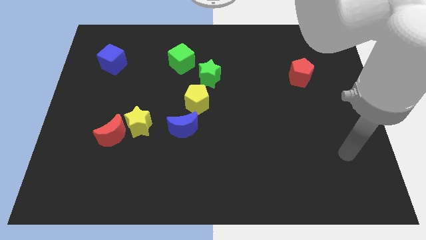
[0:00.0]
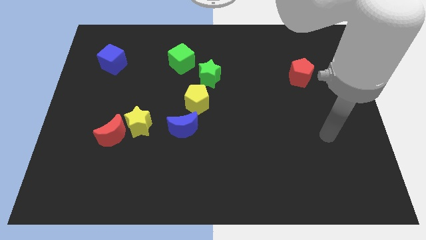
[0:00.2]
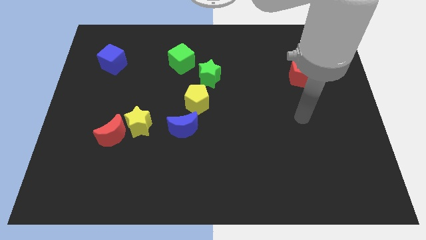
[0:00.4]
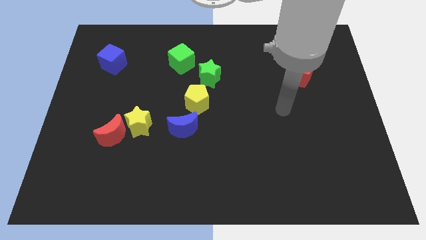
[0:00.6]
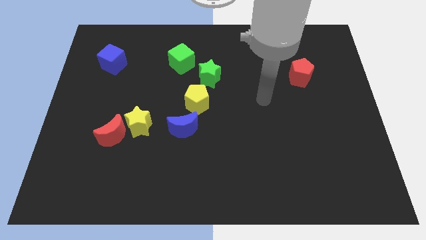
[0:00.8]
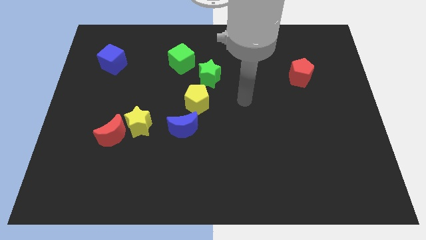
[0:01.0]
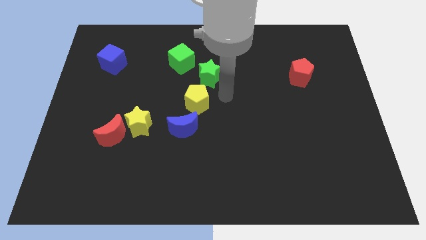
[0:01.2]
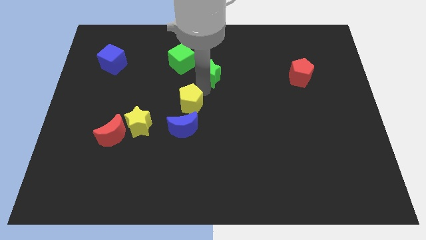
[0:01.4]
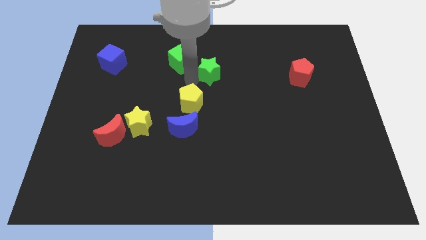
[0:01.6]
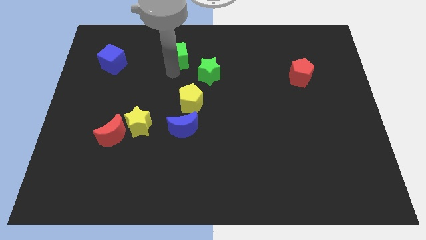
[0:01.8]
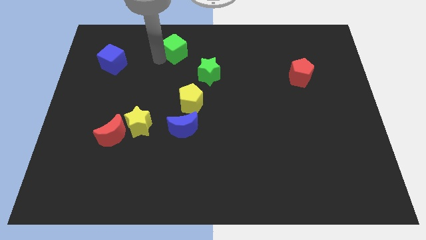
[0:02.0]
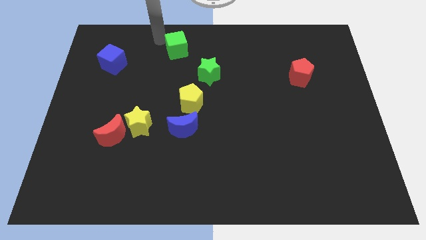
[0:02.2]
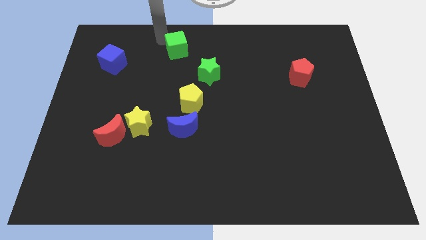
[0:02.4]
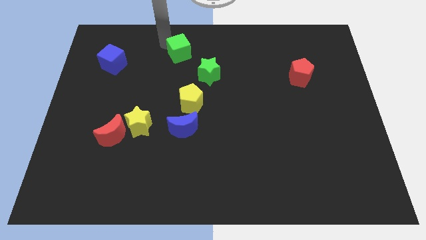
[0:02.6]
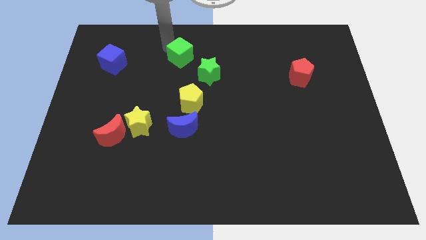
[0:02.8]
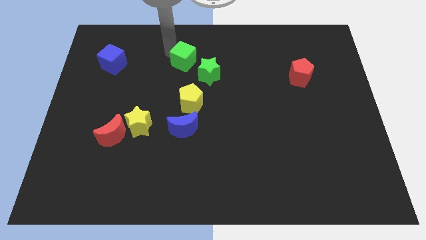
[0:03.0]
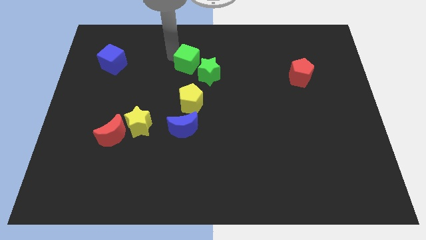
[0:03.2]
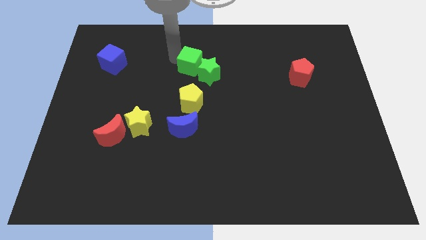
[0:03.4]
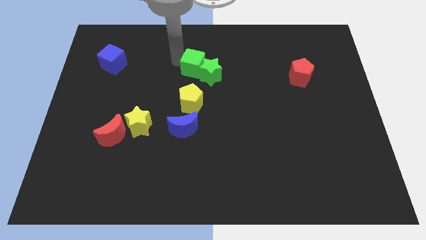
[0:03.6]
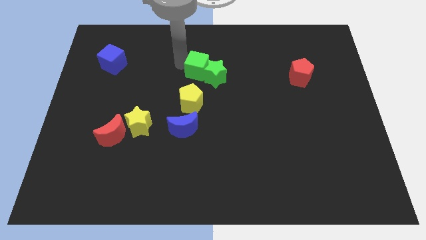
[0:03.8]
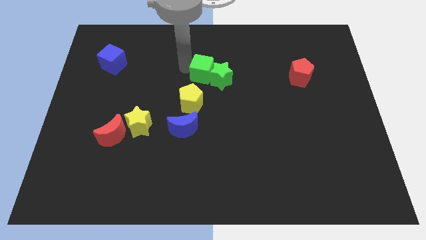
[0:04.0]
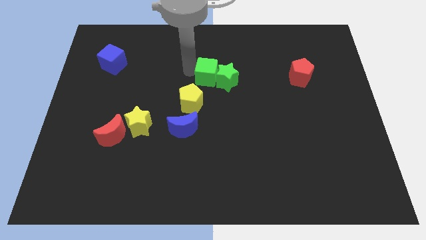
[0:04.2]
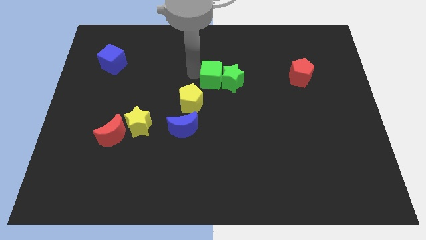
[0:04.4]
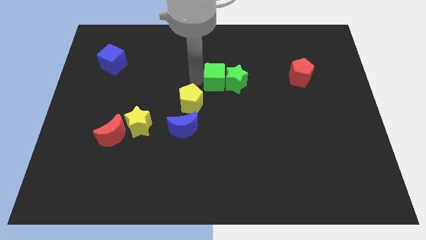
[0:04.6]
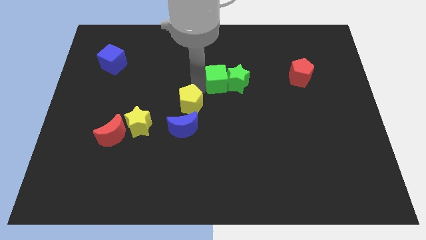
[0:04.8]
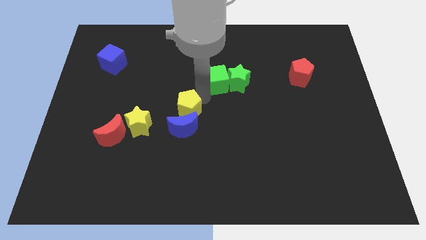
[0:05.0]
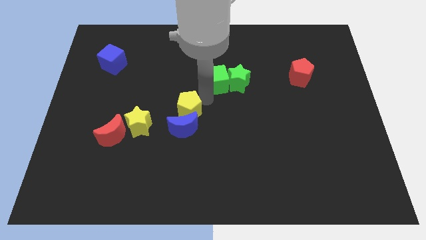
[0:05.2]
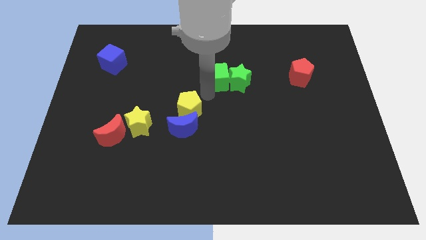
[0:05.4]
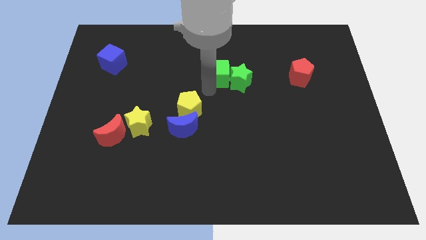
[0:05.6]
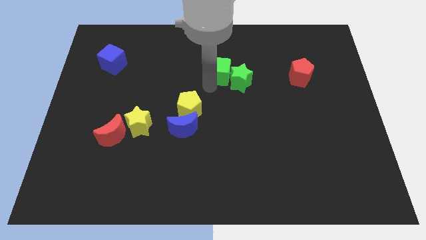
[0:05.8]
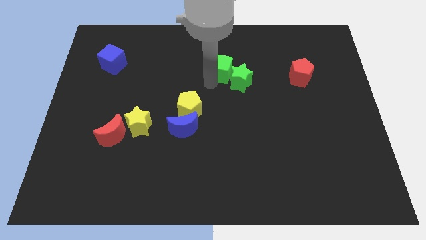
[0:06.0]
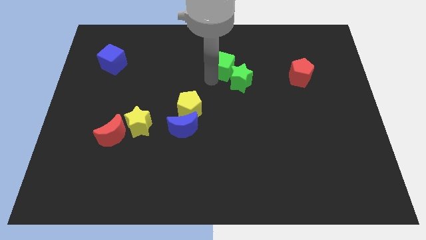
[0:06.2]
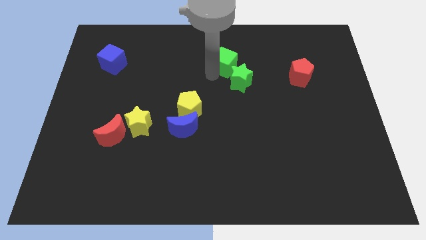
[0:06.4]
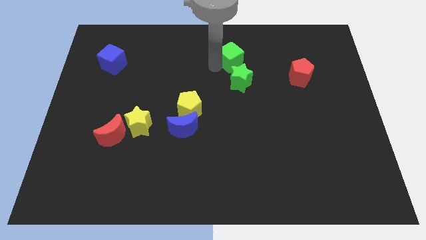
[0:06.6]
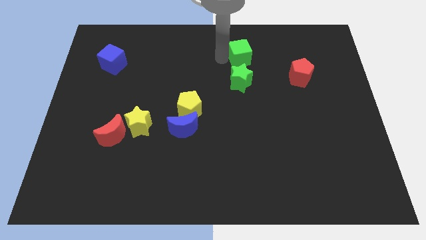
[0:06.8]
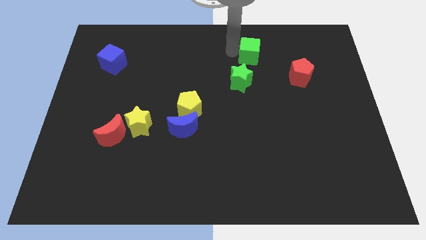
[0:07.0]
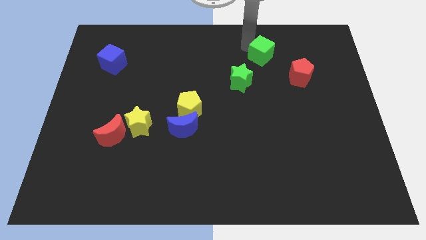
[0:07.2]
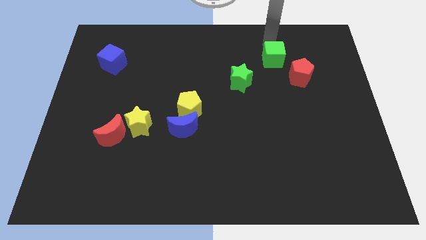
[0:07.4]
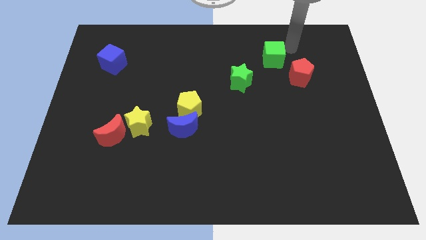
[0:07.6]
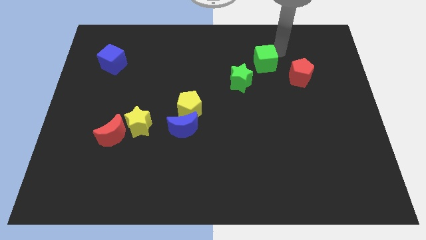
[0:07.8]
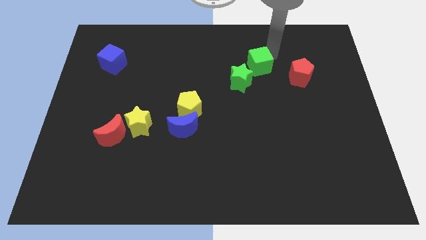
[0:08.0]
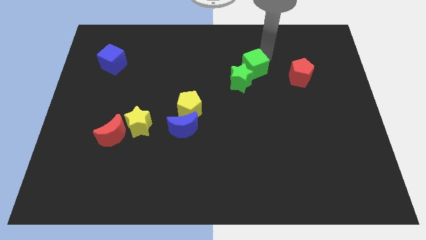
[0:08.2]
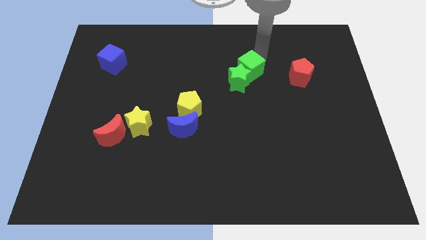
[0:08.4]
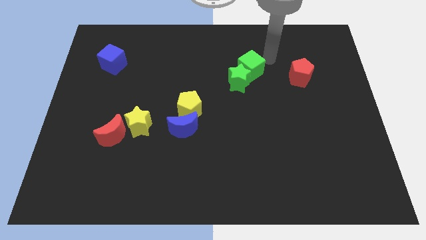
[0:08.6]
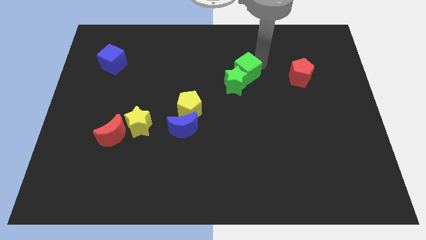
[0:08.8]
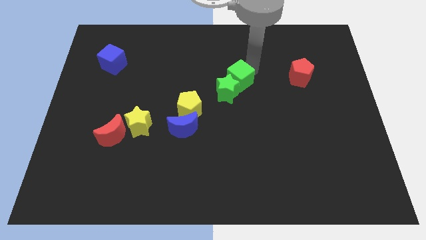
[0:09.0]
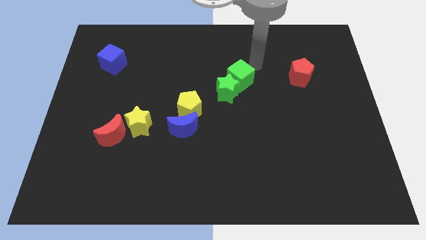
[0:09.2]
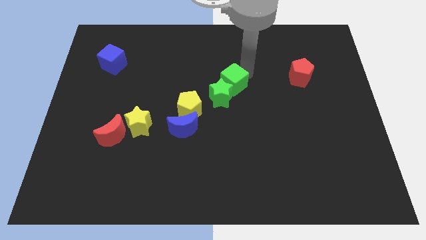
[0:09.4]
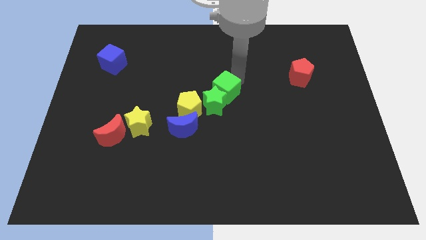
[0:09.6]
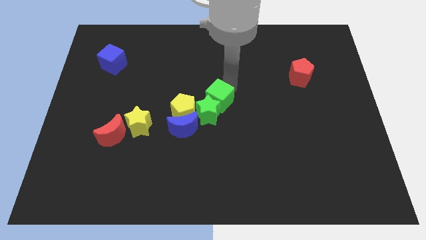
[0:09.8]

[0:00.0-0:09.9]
slide the green cube to the top right of the blue moon

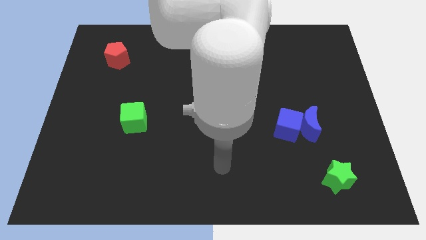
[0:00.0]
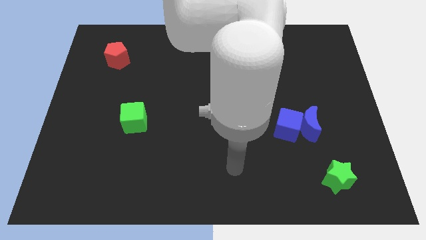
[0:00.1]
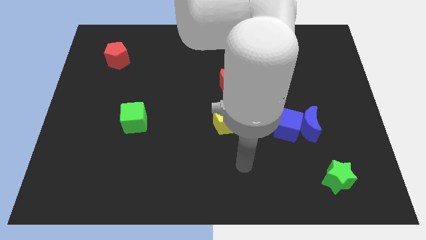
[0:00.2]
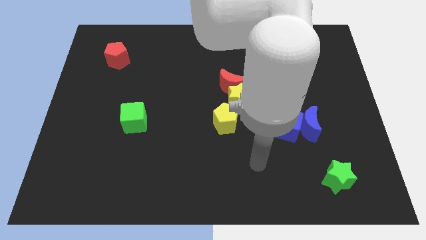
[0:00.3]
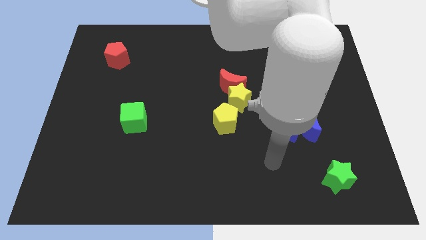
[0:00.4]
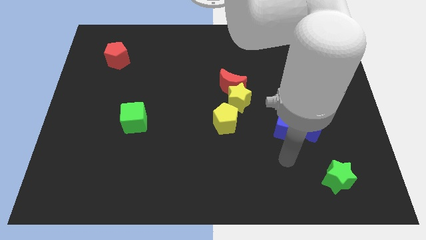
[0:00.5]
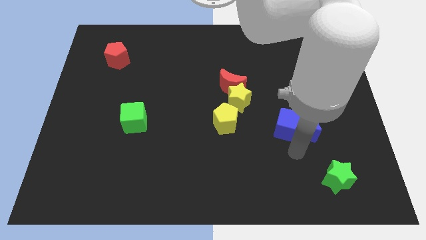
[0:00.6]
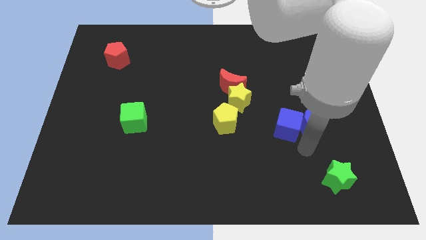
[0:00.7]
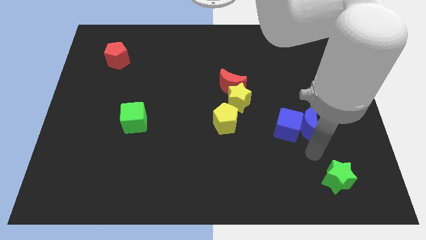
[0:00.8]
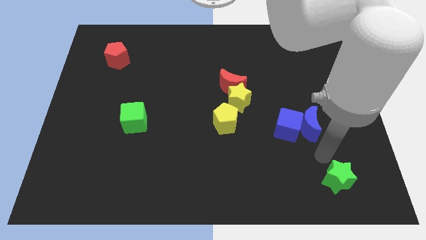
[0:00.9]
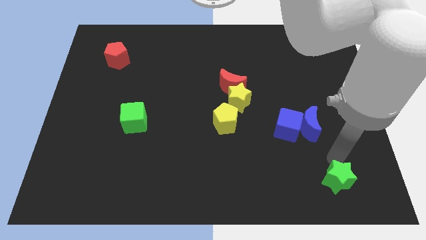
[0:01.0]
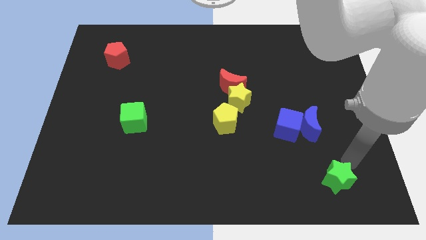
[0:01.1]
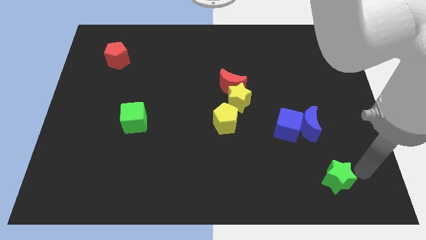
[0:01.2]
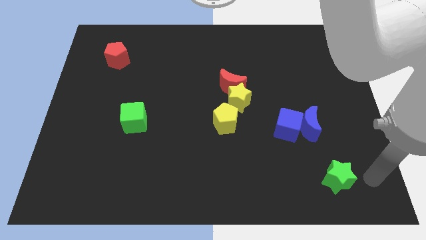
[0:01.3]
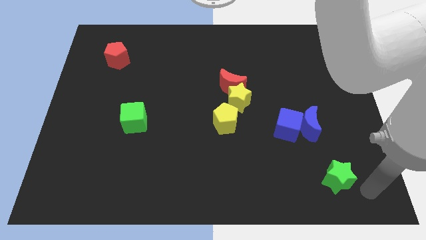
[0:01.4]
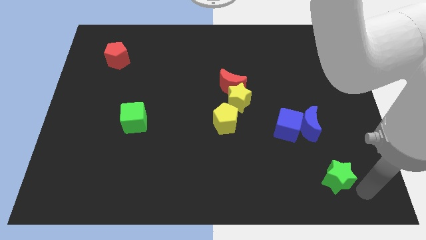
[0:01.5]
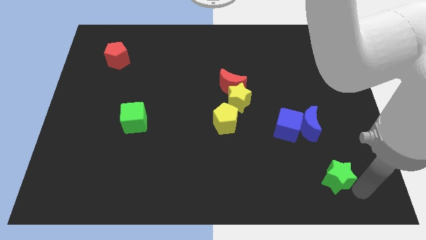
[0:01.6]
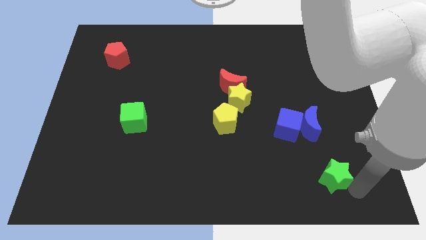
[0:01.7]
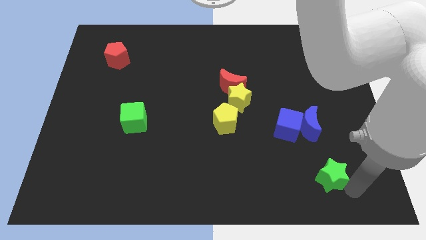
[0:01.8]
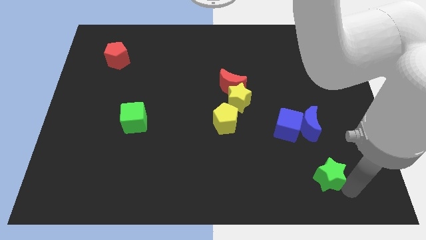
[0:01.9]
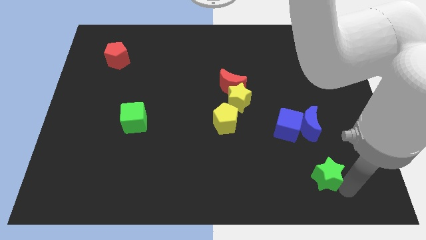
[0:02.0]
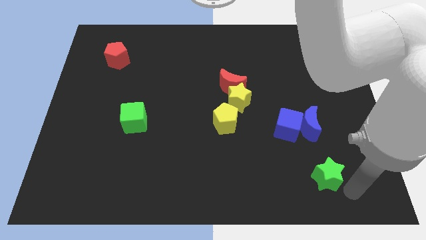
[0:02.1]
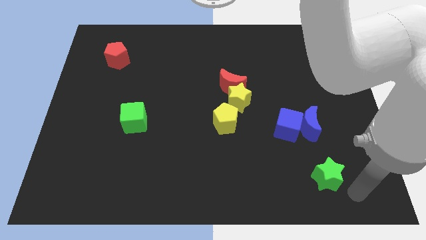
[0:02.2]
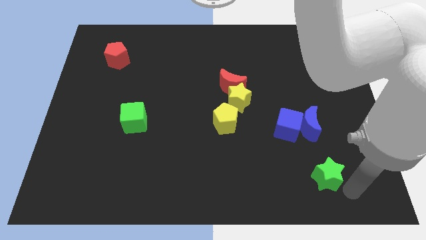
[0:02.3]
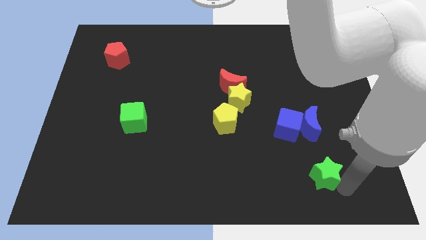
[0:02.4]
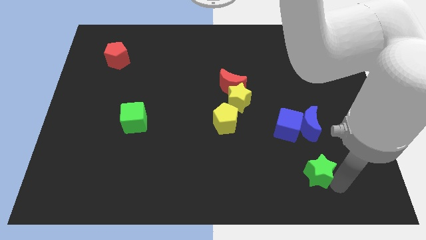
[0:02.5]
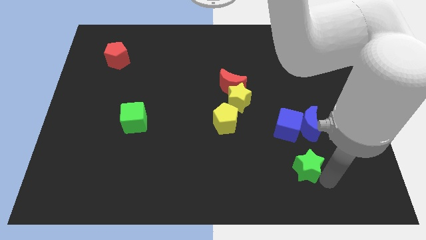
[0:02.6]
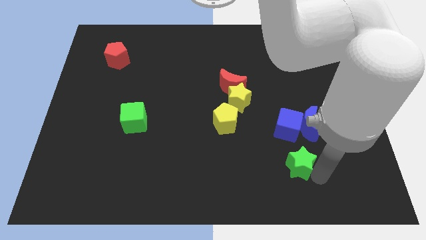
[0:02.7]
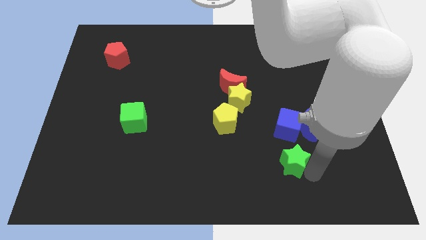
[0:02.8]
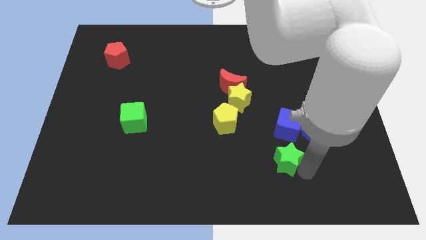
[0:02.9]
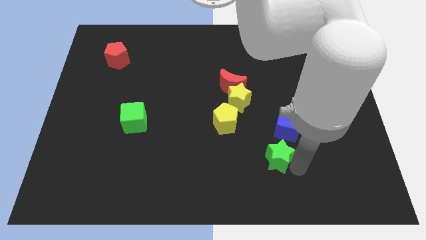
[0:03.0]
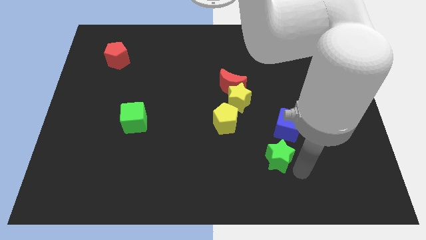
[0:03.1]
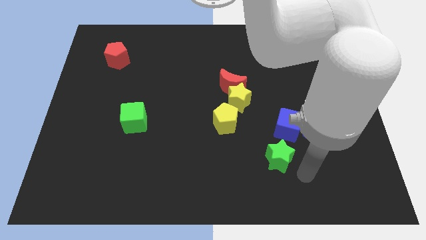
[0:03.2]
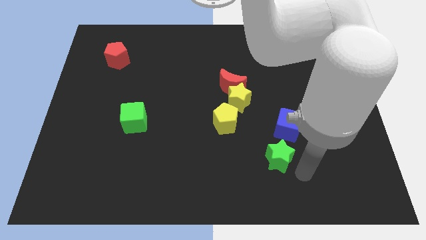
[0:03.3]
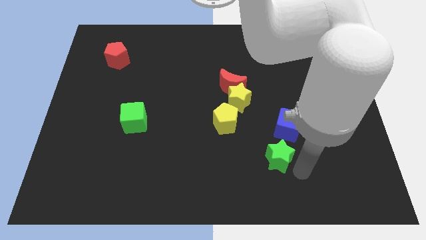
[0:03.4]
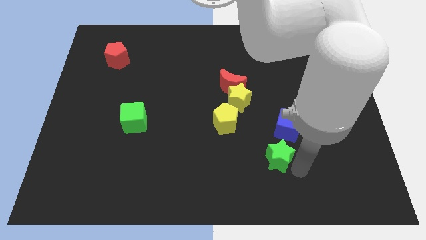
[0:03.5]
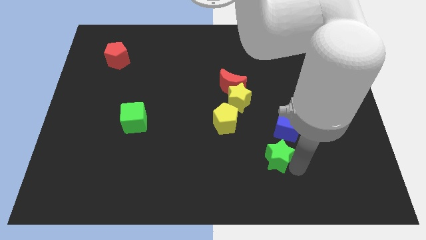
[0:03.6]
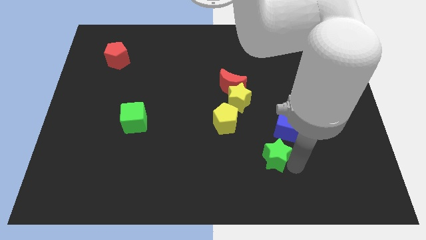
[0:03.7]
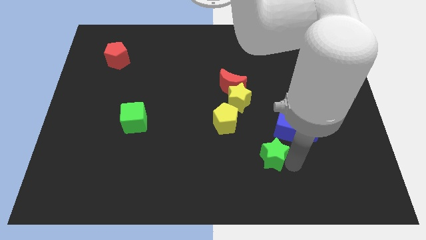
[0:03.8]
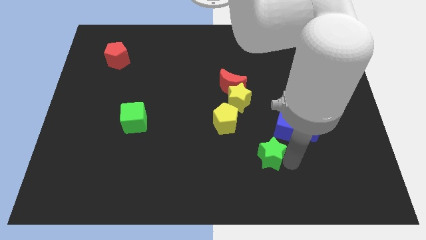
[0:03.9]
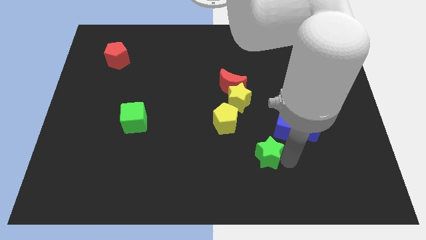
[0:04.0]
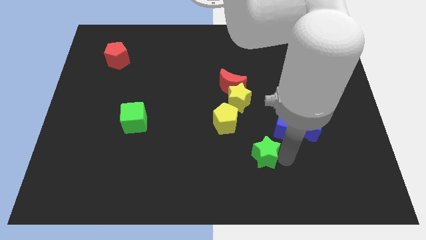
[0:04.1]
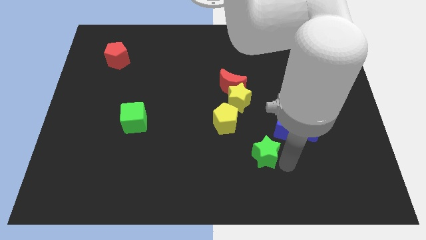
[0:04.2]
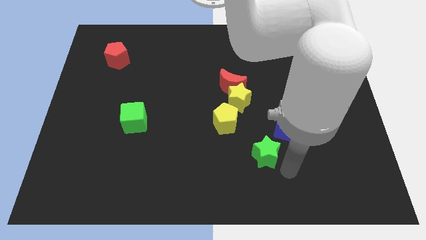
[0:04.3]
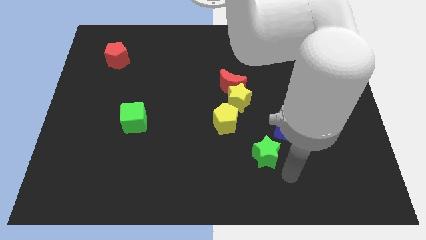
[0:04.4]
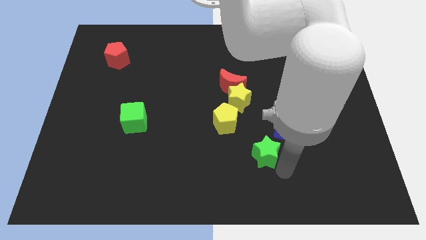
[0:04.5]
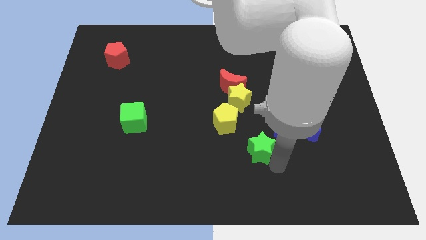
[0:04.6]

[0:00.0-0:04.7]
put the green star to the bottom of the yellow star
